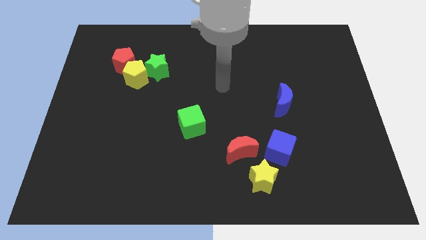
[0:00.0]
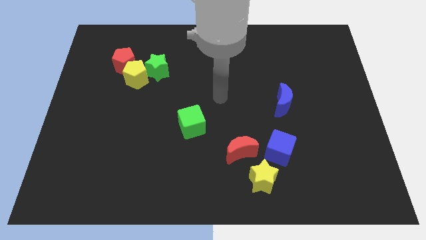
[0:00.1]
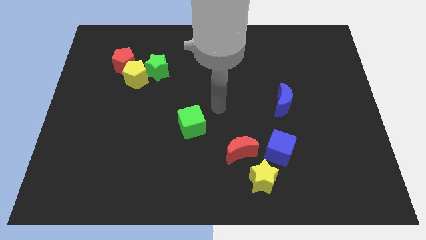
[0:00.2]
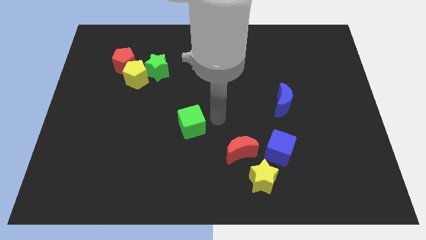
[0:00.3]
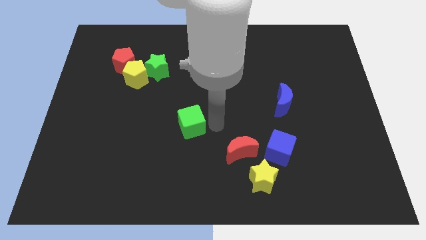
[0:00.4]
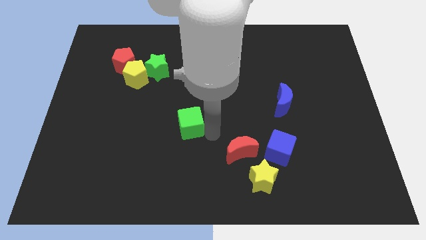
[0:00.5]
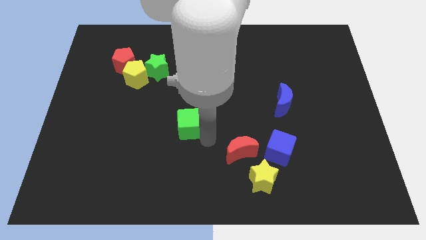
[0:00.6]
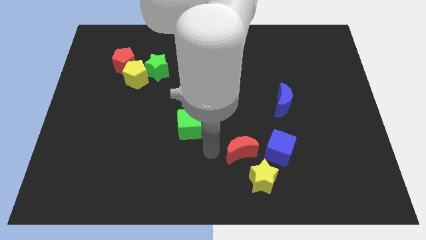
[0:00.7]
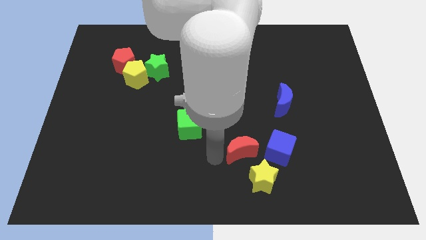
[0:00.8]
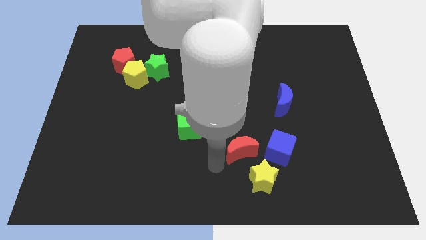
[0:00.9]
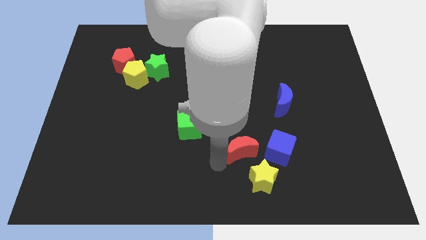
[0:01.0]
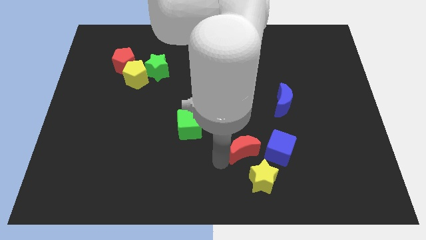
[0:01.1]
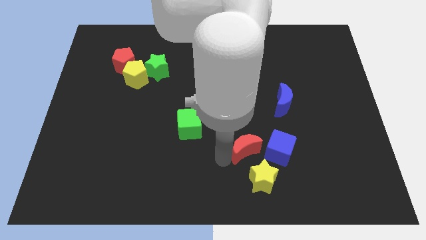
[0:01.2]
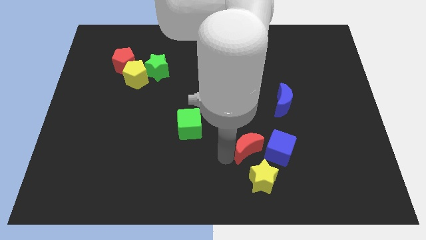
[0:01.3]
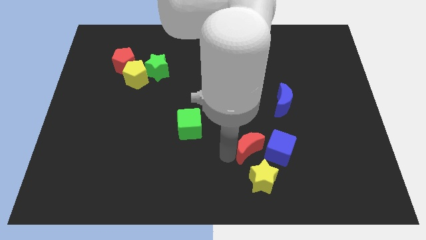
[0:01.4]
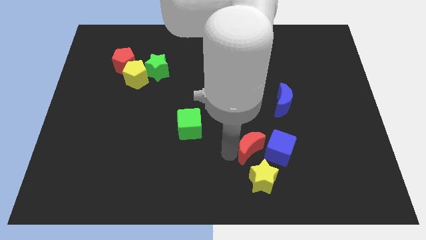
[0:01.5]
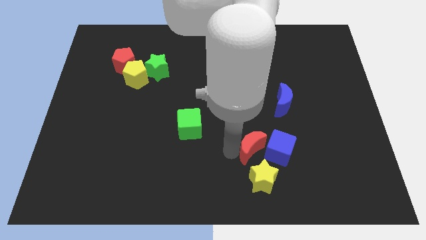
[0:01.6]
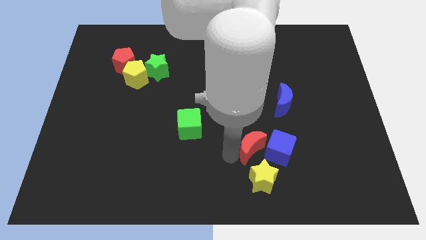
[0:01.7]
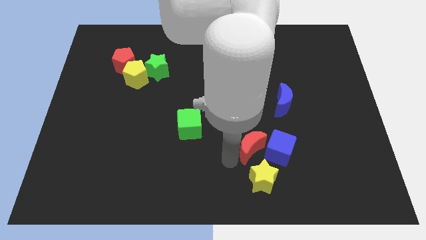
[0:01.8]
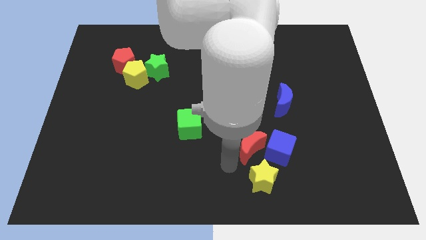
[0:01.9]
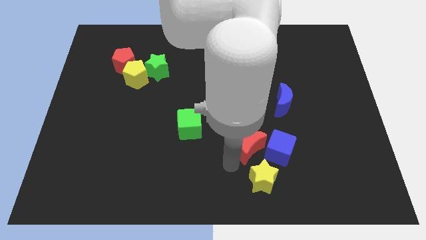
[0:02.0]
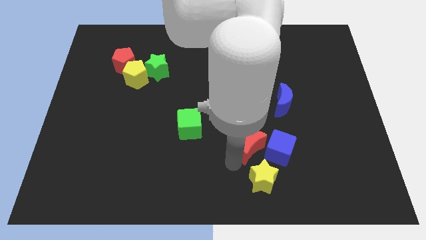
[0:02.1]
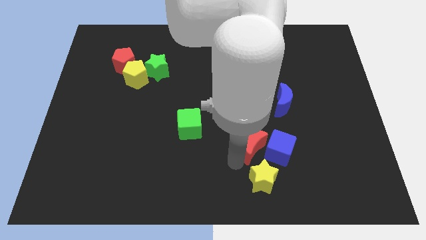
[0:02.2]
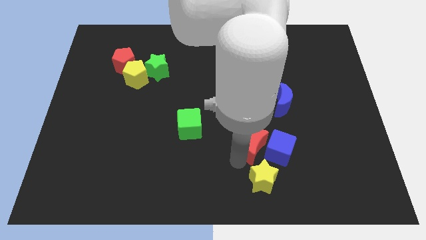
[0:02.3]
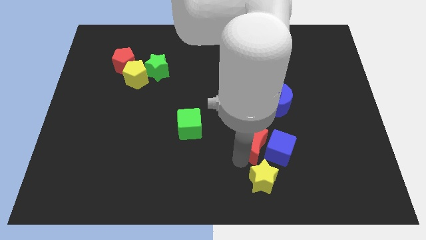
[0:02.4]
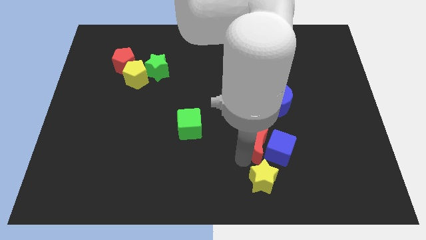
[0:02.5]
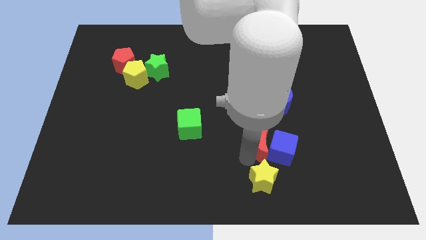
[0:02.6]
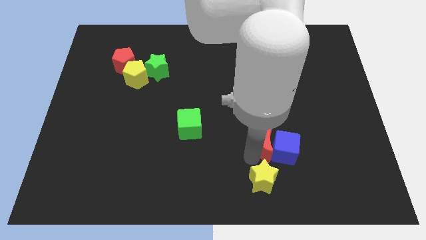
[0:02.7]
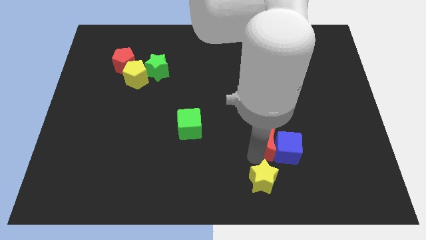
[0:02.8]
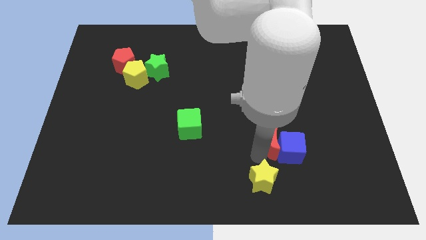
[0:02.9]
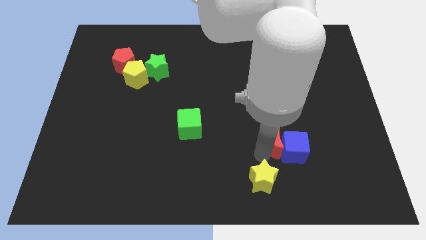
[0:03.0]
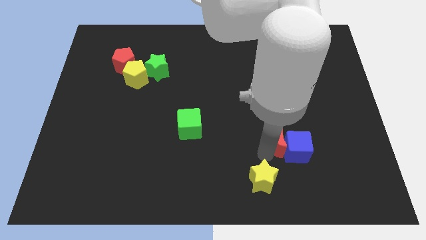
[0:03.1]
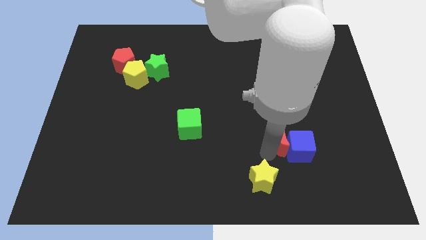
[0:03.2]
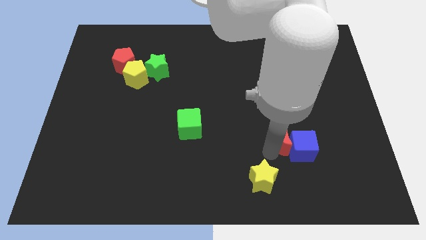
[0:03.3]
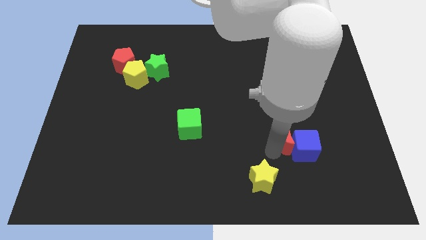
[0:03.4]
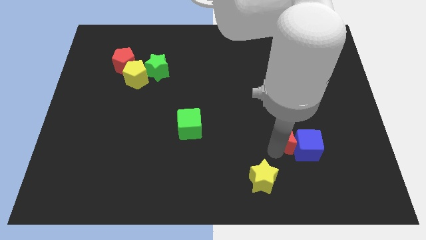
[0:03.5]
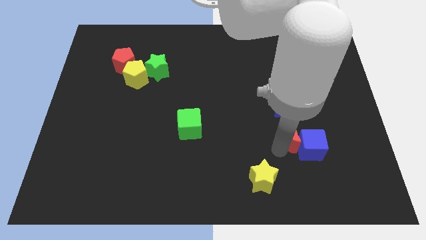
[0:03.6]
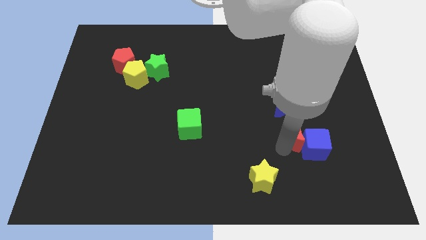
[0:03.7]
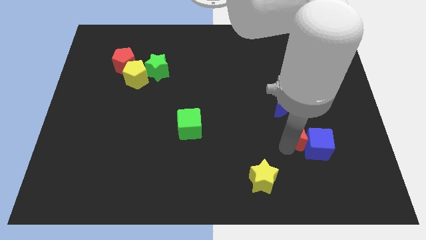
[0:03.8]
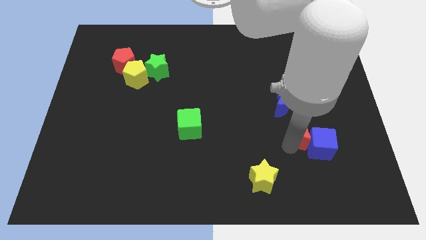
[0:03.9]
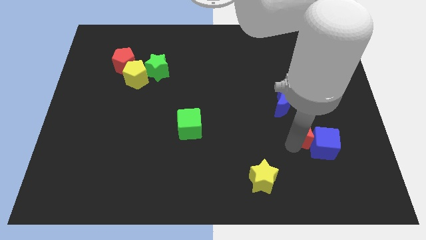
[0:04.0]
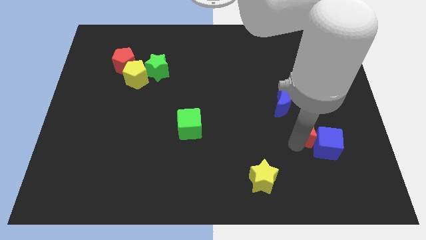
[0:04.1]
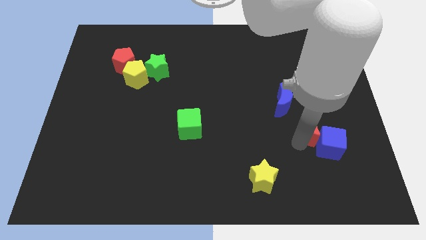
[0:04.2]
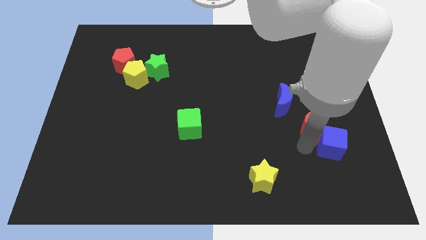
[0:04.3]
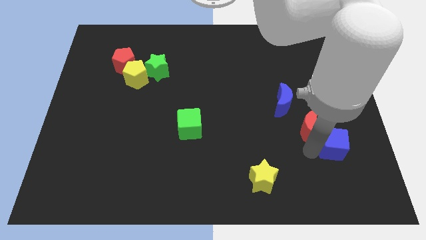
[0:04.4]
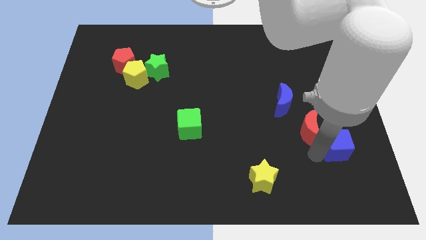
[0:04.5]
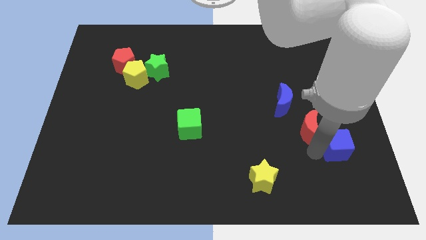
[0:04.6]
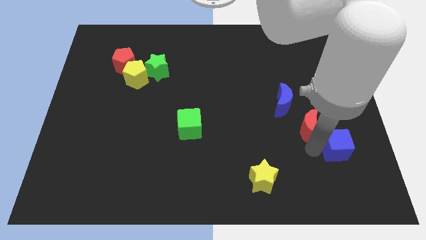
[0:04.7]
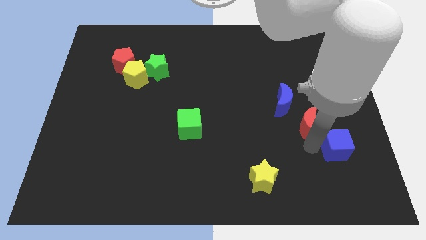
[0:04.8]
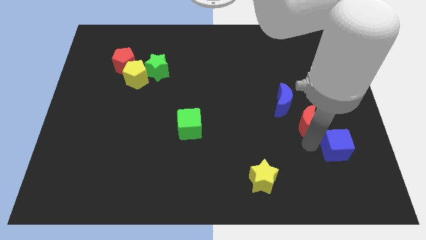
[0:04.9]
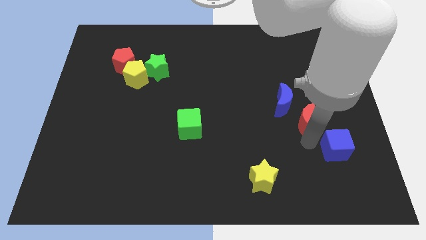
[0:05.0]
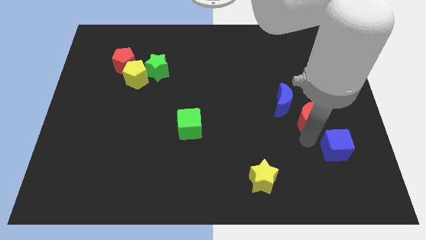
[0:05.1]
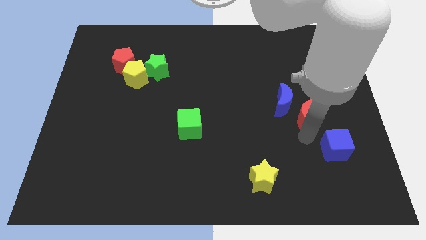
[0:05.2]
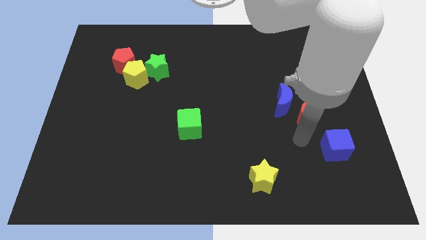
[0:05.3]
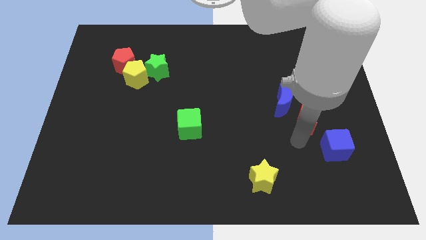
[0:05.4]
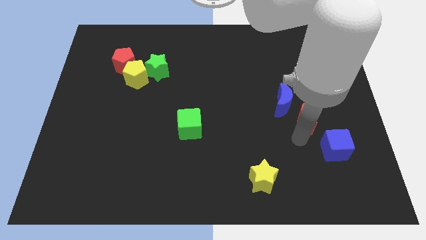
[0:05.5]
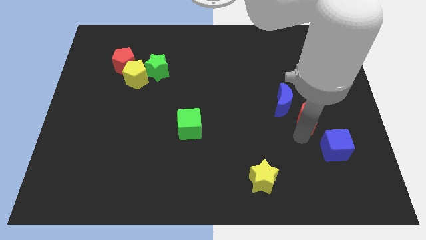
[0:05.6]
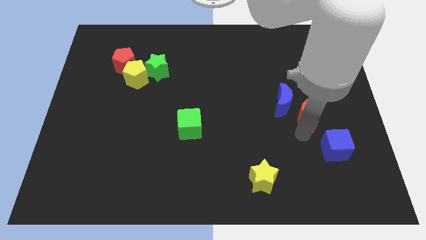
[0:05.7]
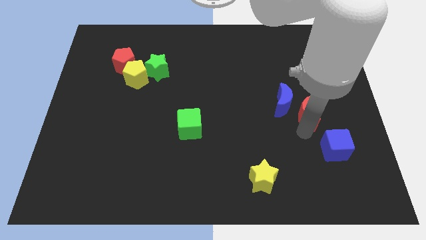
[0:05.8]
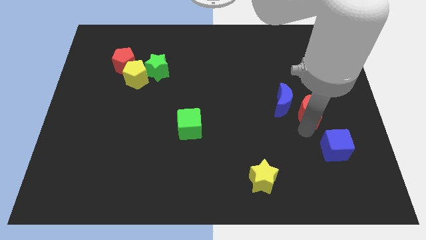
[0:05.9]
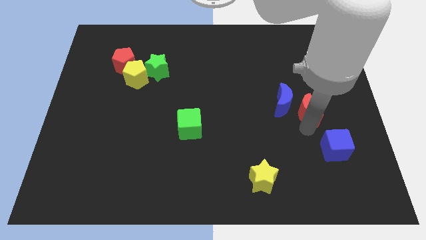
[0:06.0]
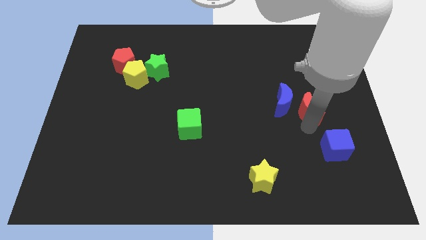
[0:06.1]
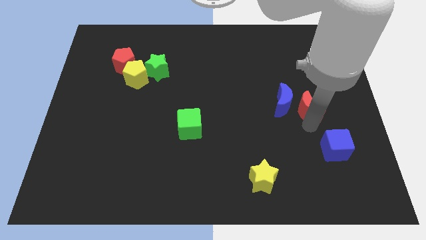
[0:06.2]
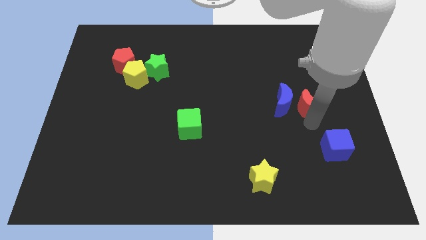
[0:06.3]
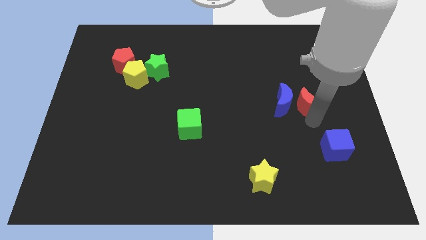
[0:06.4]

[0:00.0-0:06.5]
move the red moon upwards and to the right

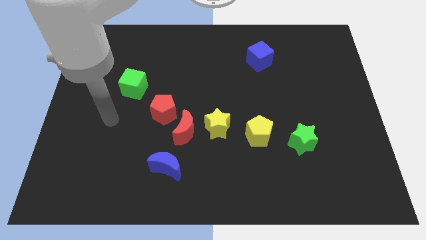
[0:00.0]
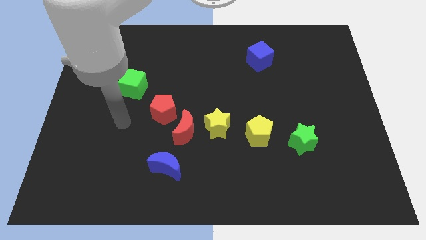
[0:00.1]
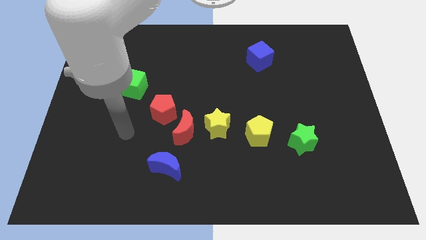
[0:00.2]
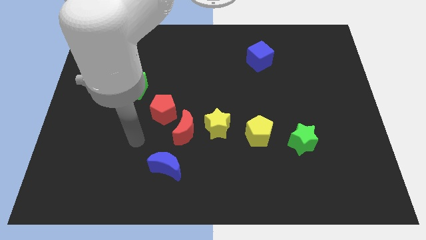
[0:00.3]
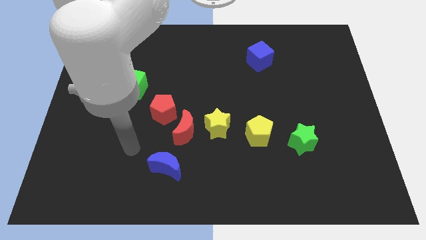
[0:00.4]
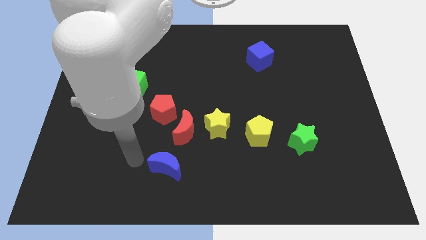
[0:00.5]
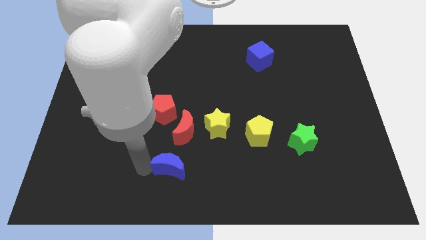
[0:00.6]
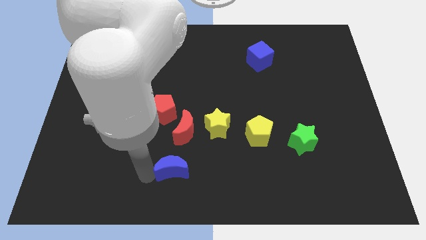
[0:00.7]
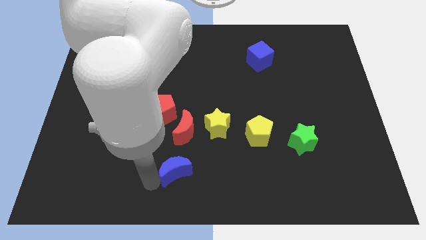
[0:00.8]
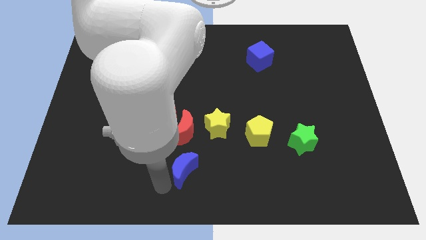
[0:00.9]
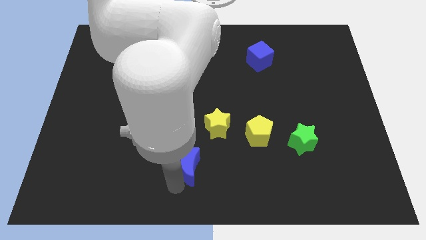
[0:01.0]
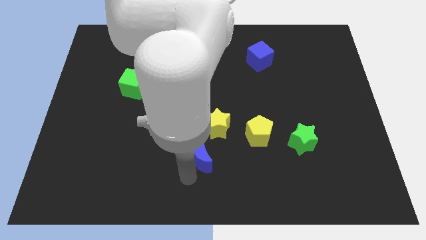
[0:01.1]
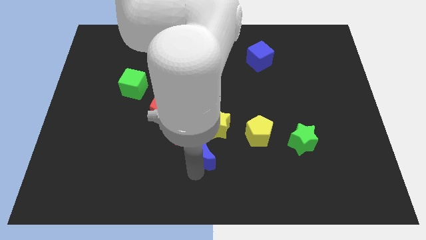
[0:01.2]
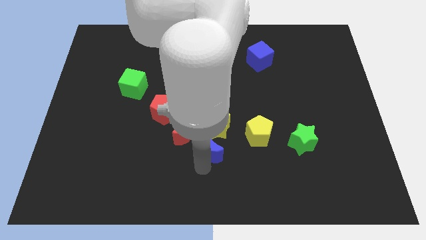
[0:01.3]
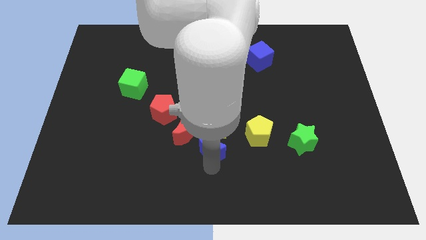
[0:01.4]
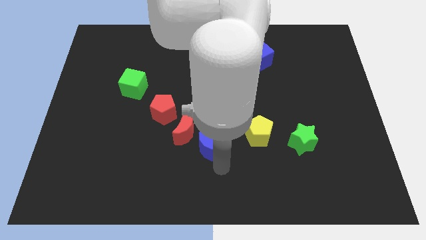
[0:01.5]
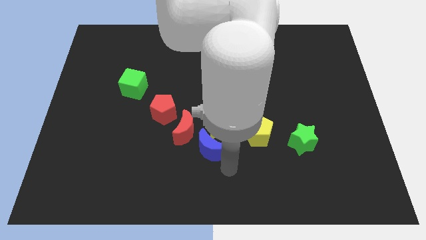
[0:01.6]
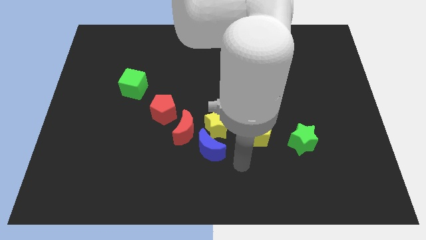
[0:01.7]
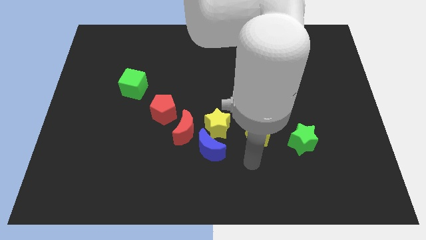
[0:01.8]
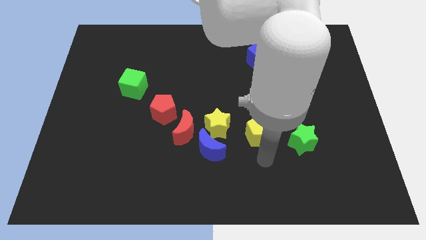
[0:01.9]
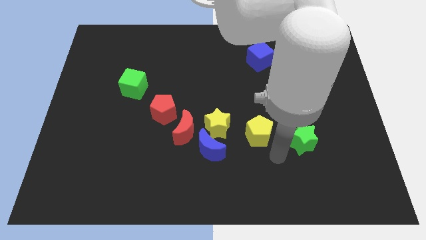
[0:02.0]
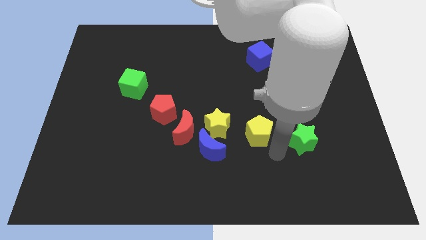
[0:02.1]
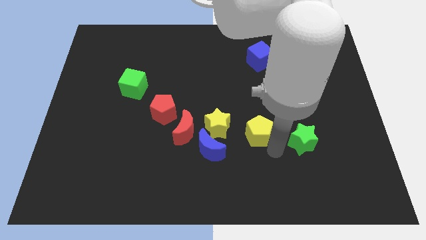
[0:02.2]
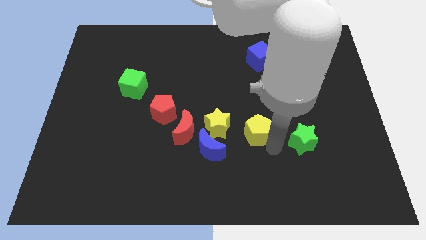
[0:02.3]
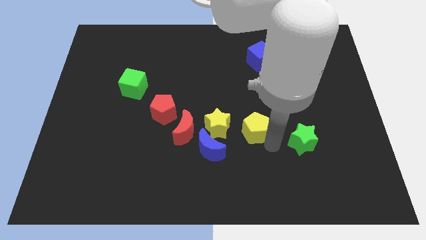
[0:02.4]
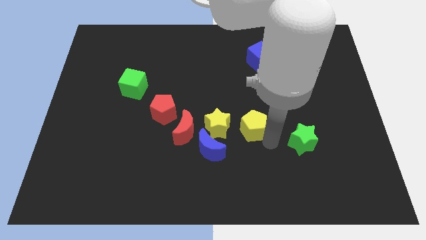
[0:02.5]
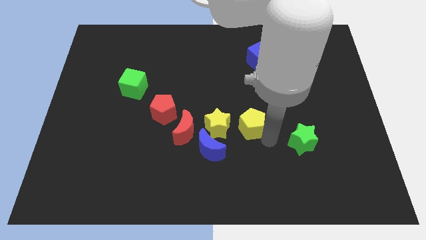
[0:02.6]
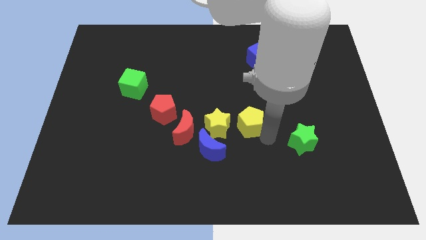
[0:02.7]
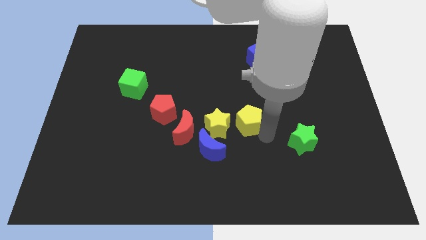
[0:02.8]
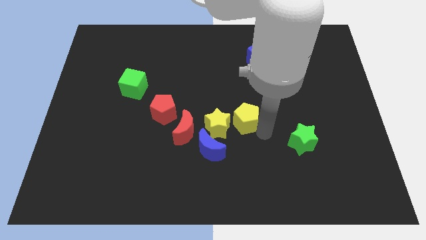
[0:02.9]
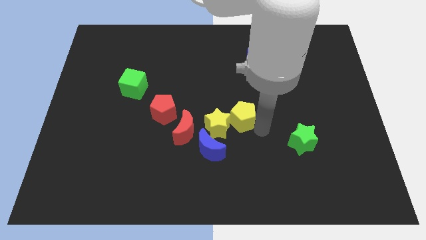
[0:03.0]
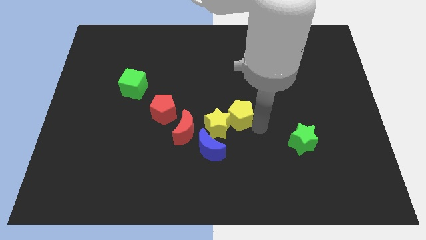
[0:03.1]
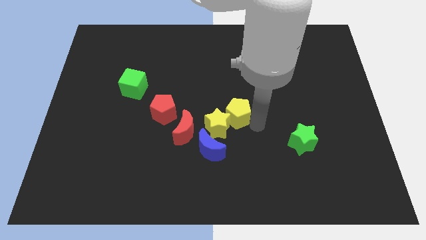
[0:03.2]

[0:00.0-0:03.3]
push the yellow pentagon a little bit diagonally up and left
